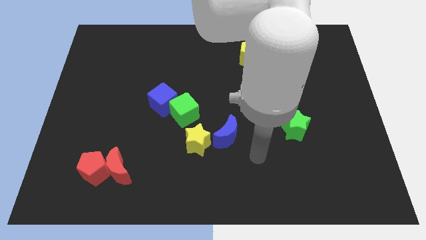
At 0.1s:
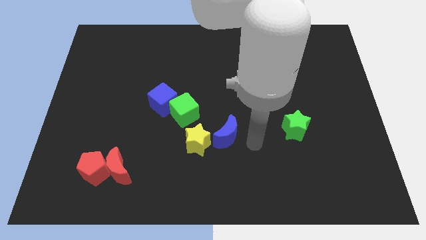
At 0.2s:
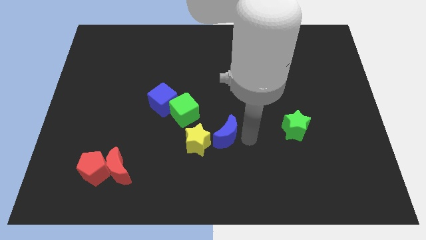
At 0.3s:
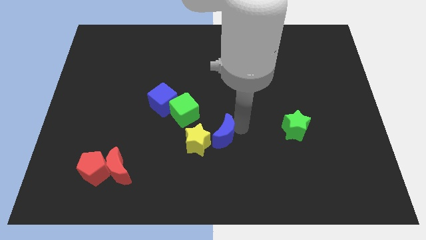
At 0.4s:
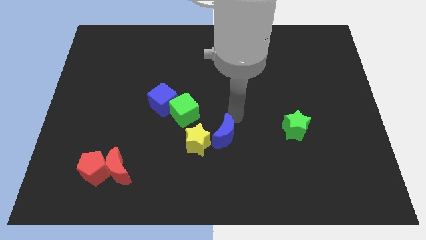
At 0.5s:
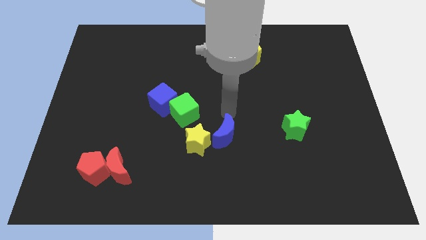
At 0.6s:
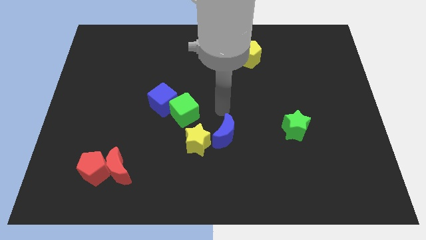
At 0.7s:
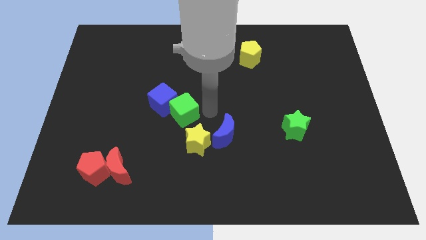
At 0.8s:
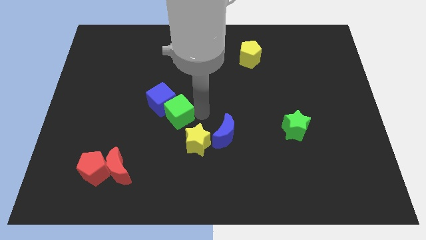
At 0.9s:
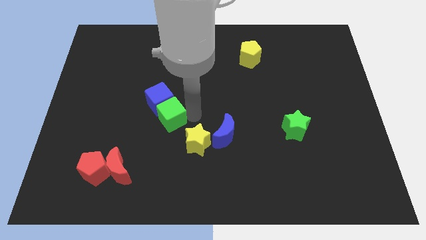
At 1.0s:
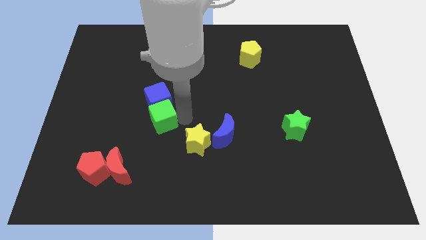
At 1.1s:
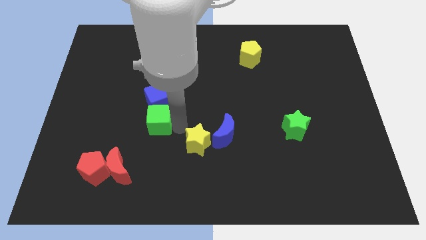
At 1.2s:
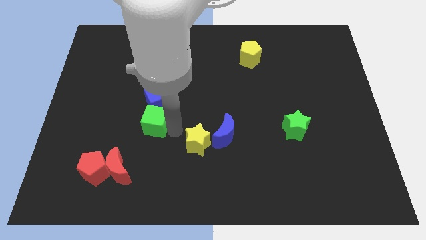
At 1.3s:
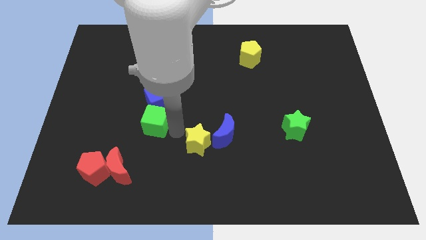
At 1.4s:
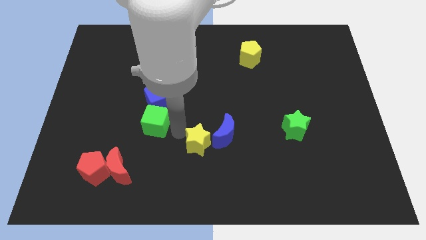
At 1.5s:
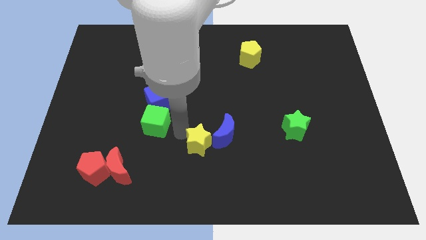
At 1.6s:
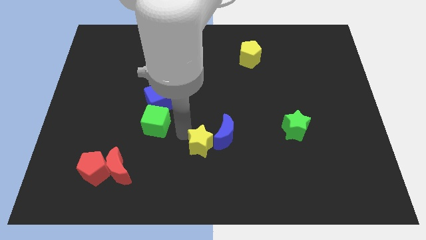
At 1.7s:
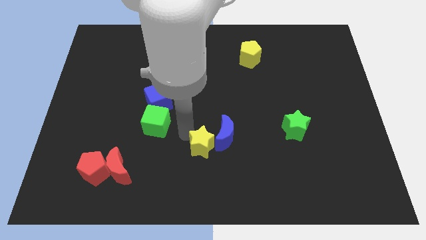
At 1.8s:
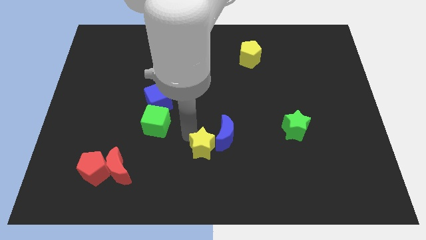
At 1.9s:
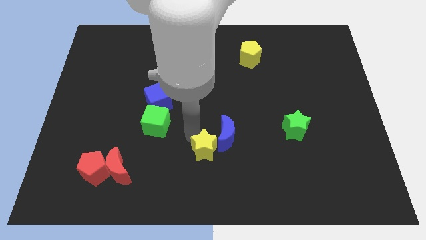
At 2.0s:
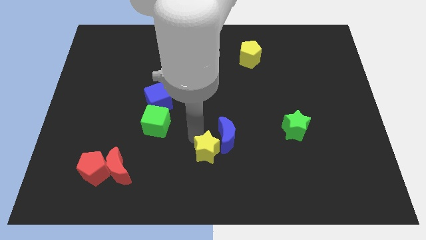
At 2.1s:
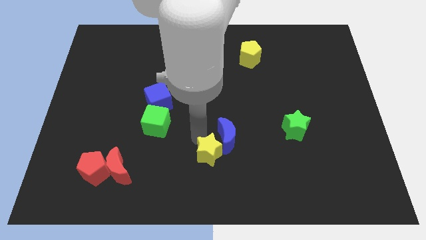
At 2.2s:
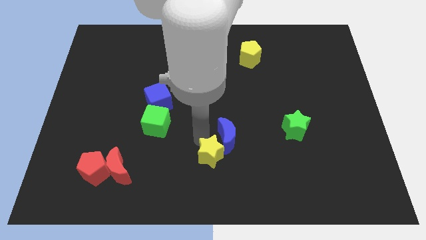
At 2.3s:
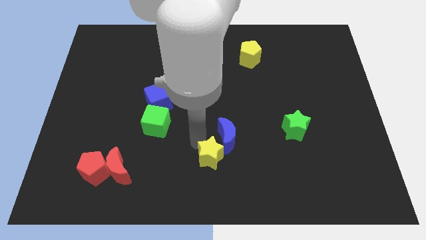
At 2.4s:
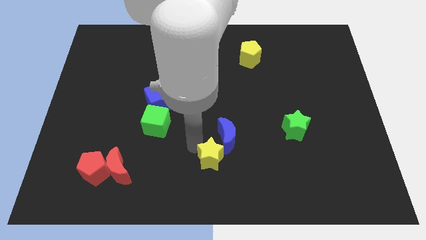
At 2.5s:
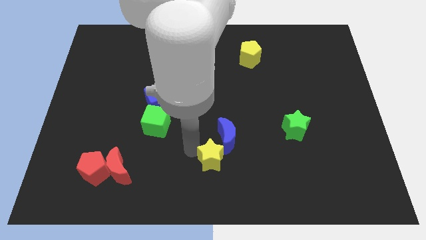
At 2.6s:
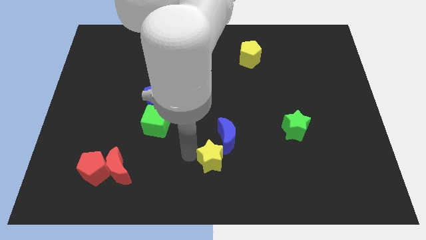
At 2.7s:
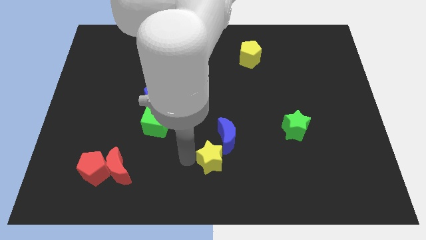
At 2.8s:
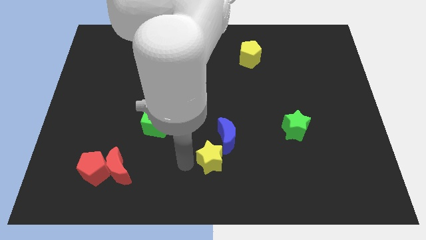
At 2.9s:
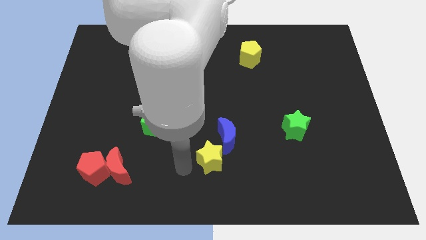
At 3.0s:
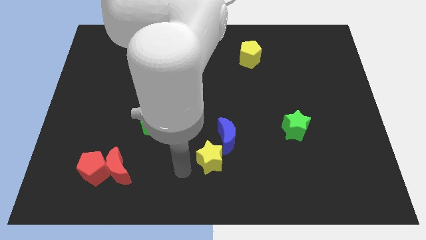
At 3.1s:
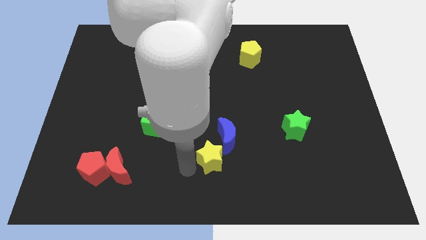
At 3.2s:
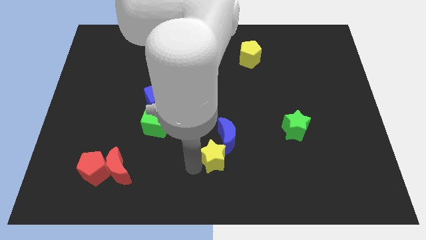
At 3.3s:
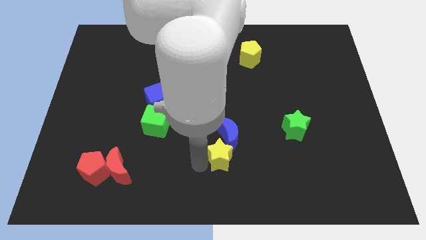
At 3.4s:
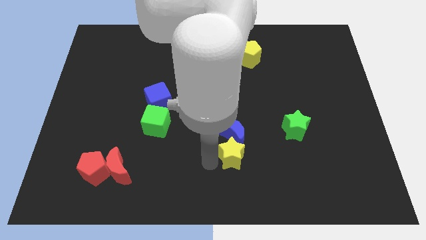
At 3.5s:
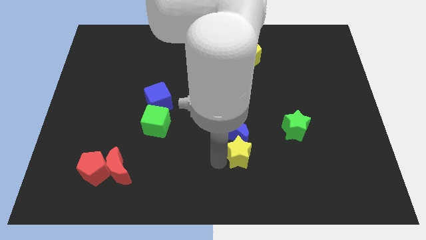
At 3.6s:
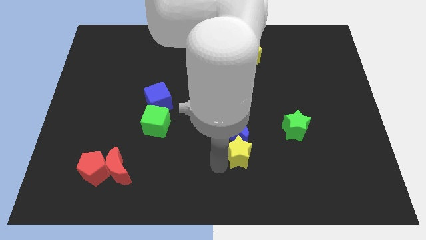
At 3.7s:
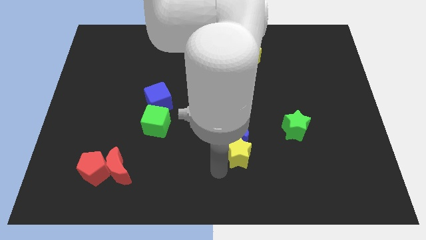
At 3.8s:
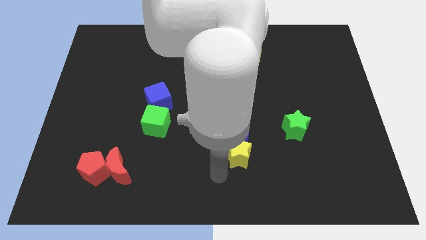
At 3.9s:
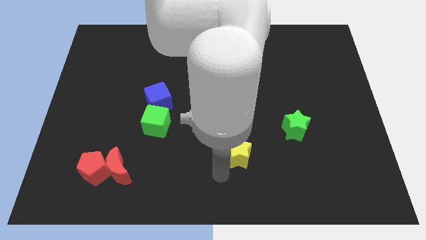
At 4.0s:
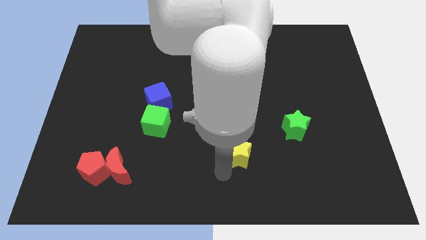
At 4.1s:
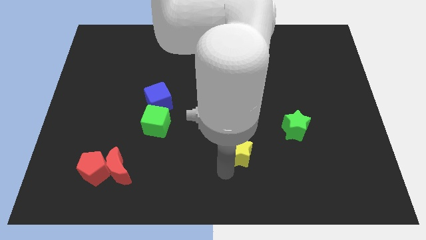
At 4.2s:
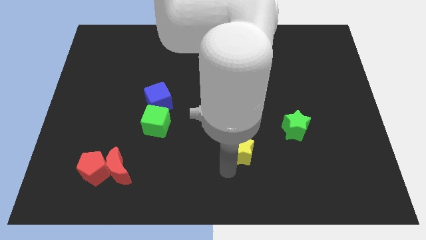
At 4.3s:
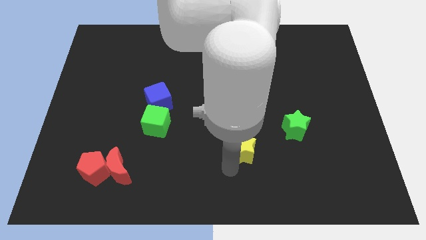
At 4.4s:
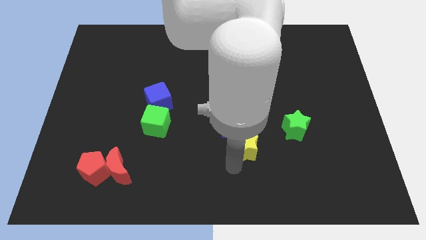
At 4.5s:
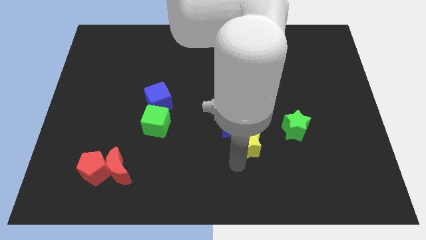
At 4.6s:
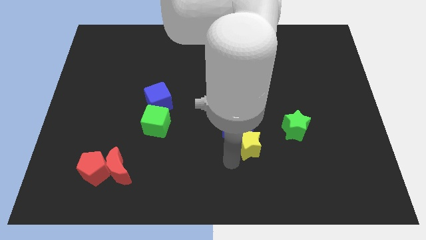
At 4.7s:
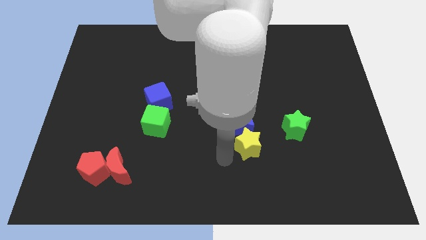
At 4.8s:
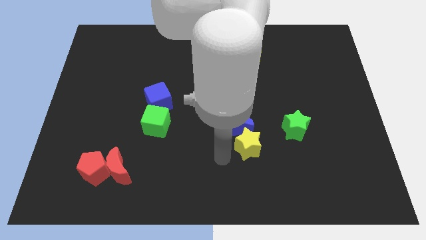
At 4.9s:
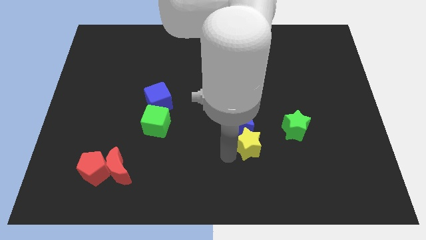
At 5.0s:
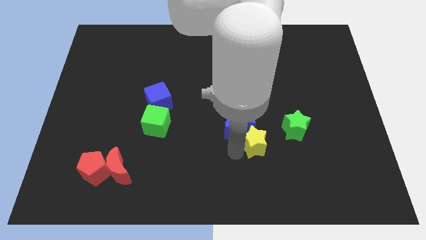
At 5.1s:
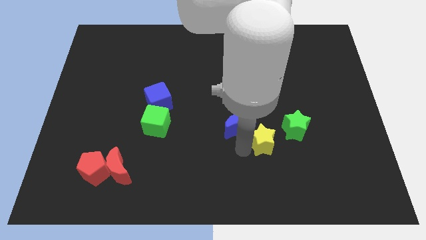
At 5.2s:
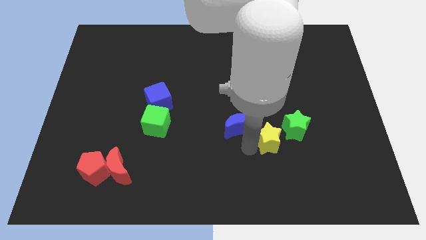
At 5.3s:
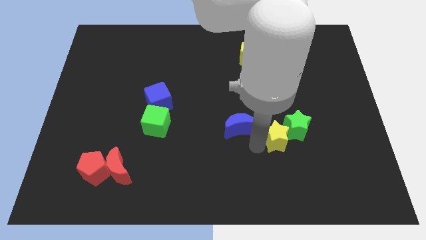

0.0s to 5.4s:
put the yellow star to the green star

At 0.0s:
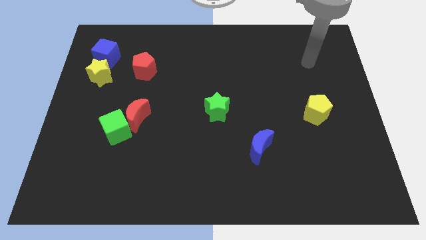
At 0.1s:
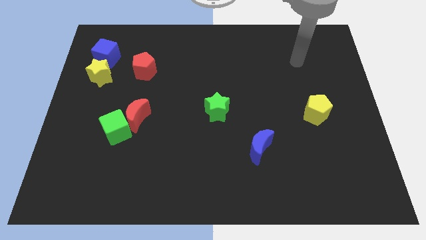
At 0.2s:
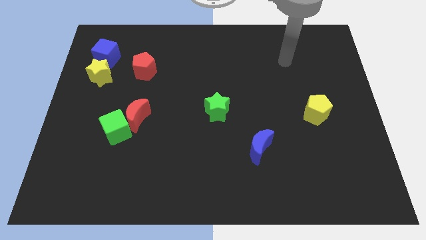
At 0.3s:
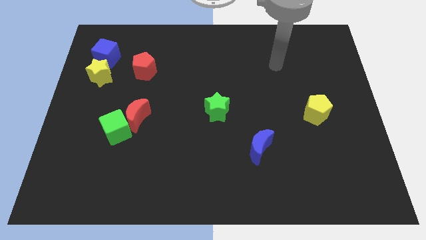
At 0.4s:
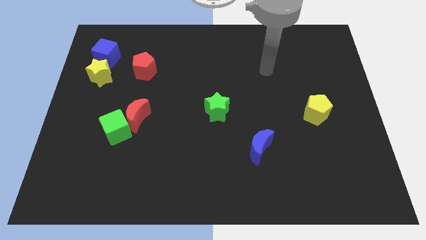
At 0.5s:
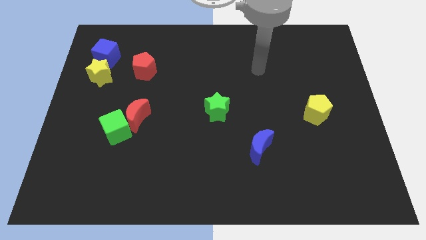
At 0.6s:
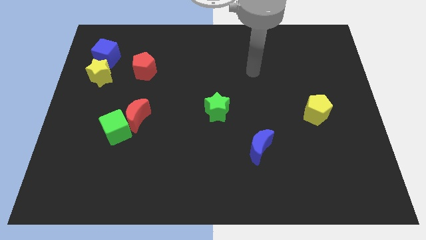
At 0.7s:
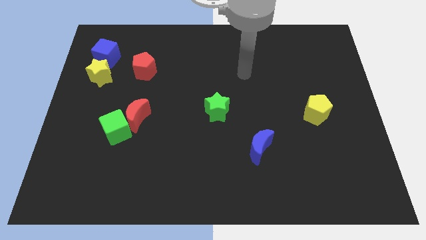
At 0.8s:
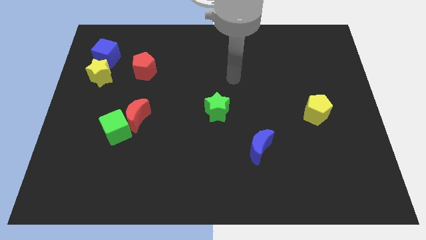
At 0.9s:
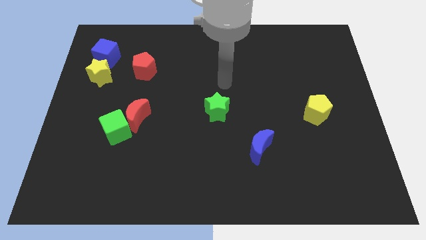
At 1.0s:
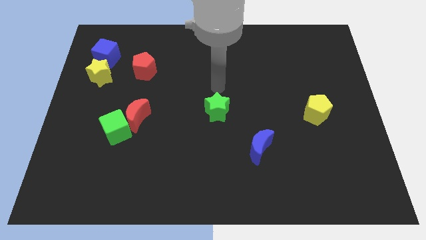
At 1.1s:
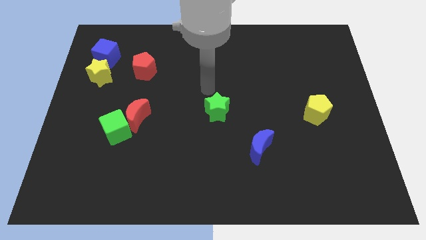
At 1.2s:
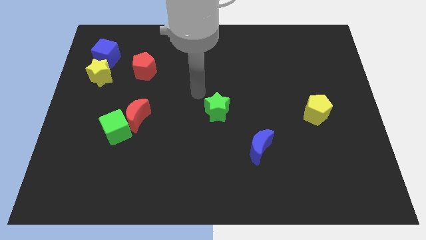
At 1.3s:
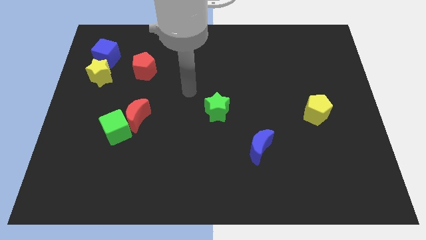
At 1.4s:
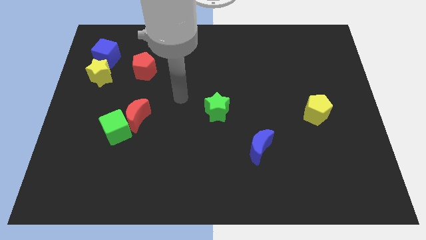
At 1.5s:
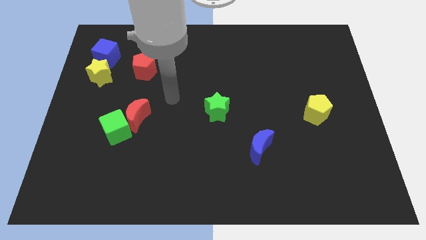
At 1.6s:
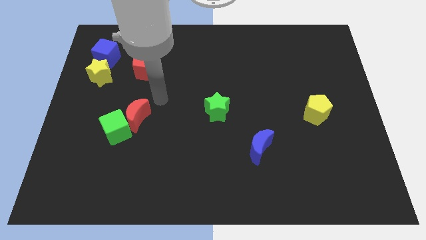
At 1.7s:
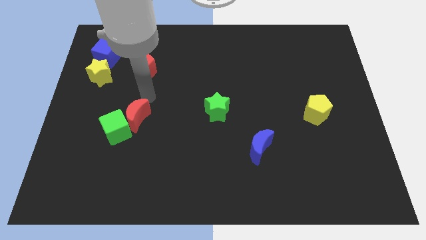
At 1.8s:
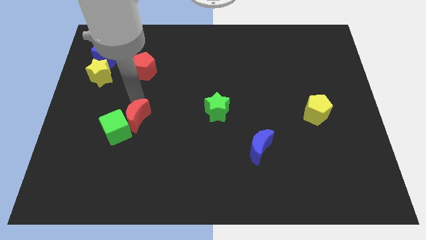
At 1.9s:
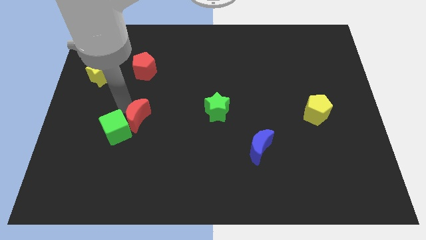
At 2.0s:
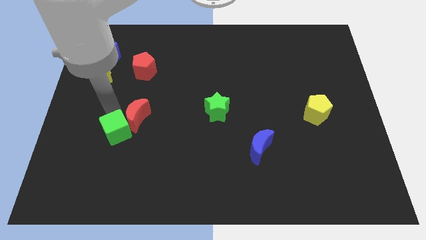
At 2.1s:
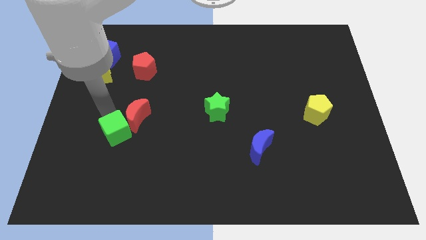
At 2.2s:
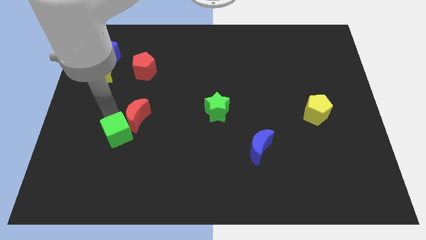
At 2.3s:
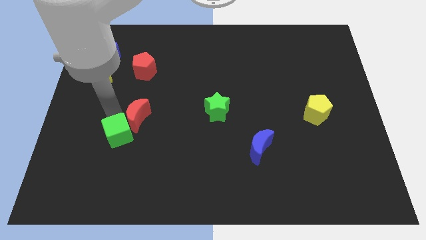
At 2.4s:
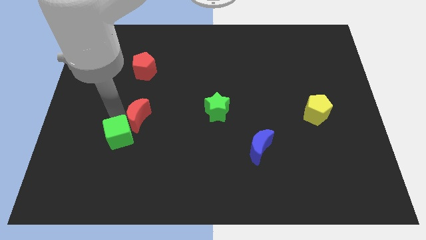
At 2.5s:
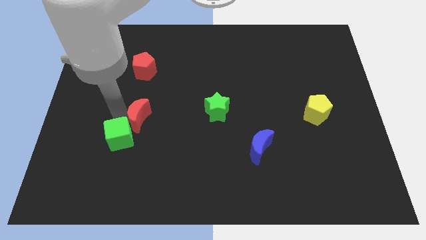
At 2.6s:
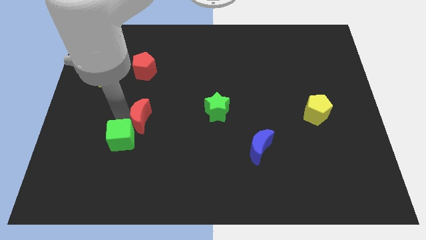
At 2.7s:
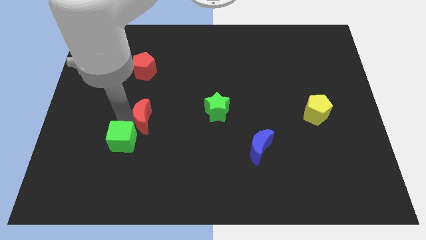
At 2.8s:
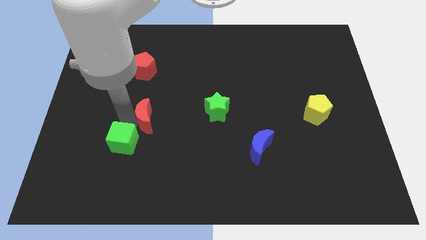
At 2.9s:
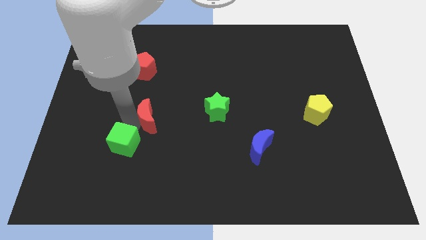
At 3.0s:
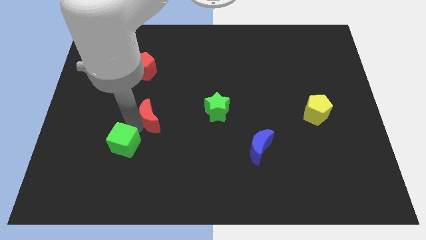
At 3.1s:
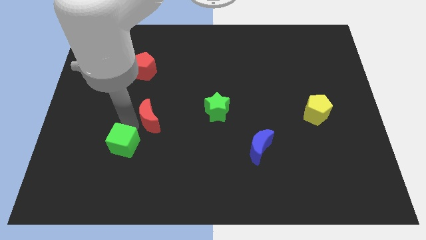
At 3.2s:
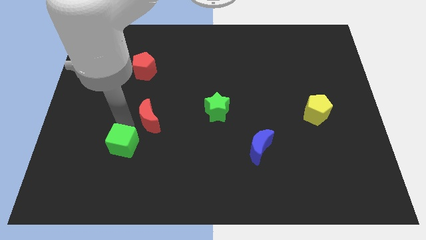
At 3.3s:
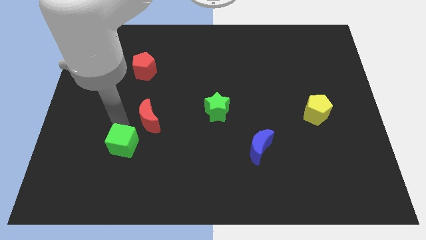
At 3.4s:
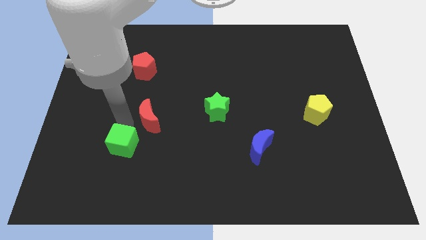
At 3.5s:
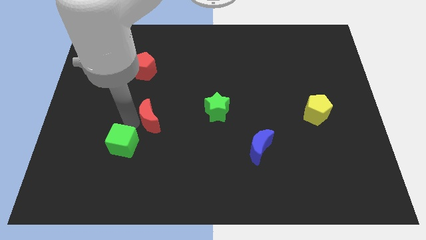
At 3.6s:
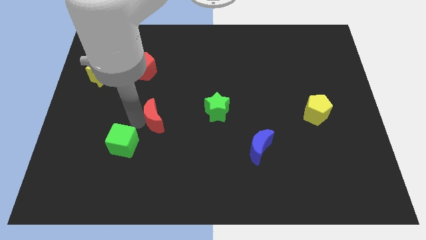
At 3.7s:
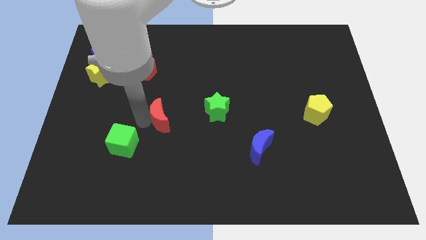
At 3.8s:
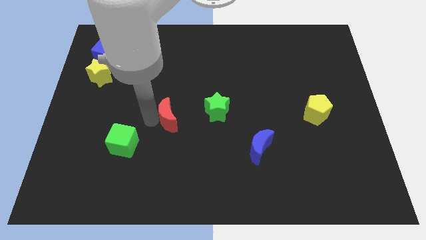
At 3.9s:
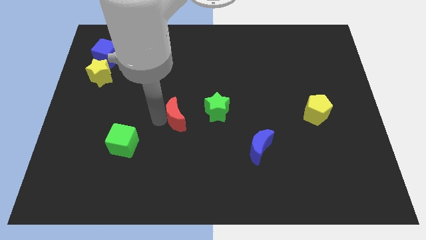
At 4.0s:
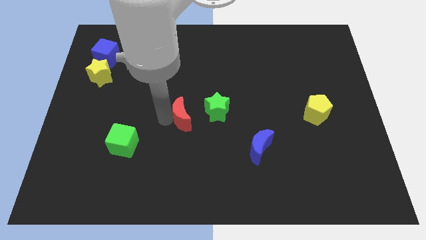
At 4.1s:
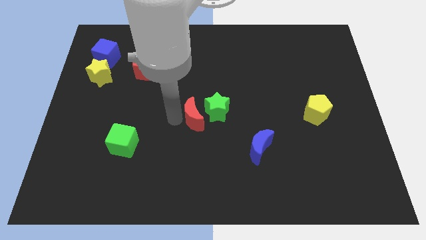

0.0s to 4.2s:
slide the red moon next to the green star
